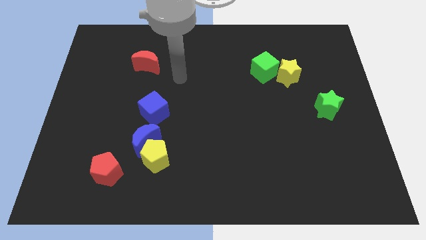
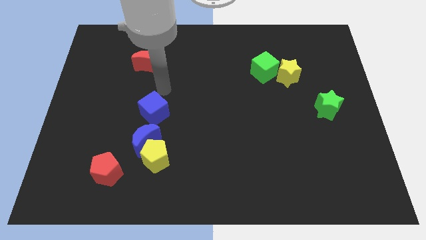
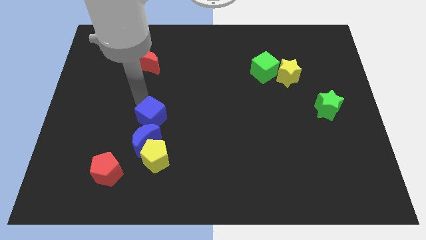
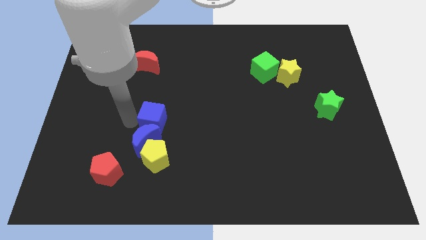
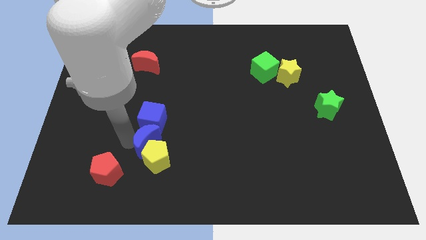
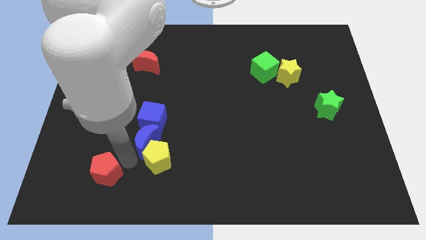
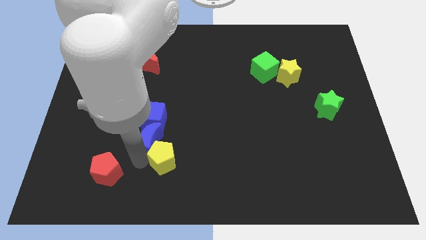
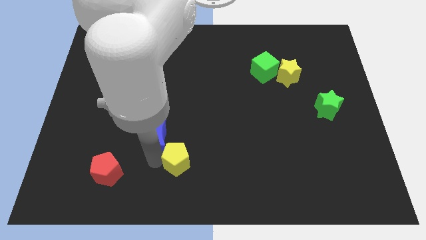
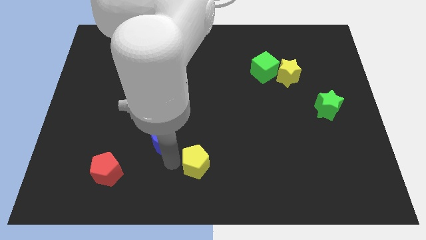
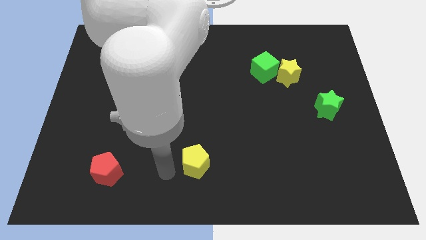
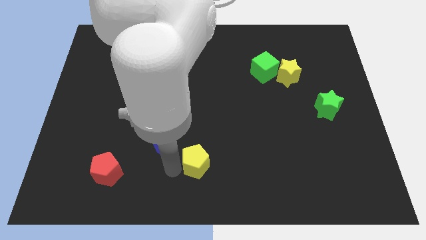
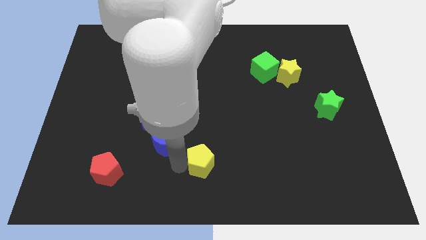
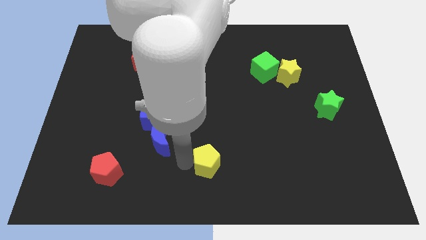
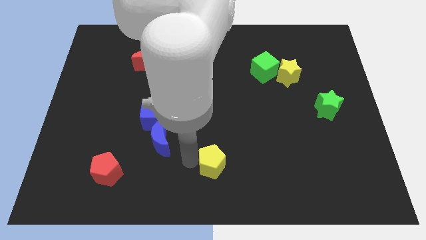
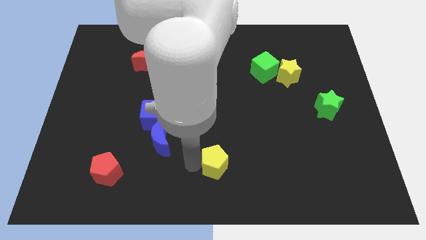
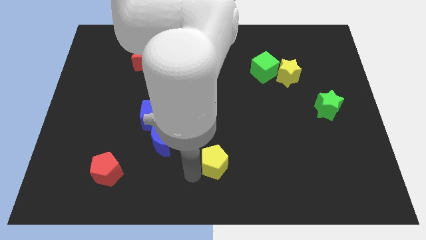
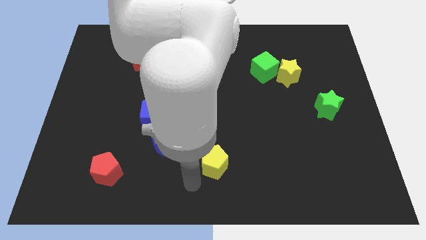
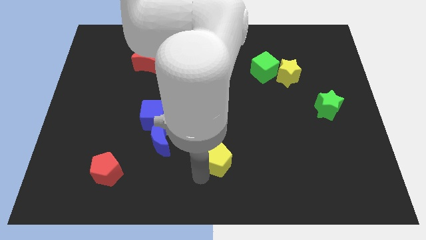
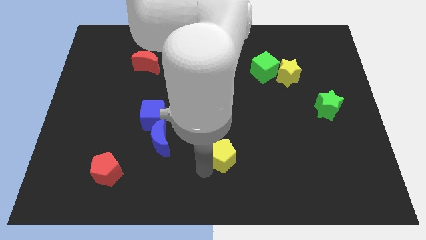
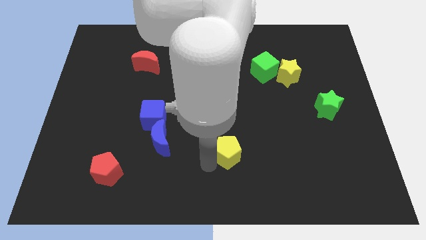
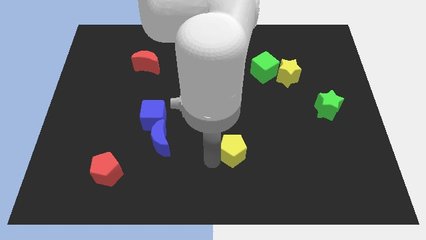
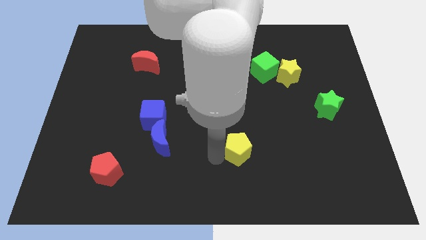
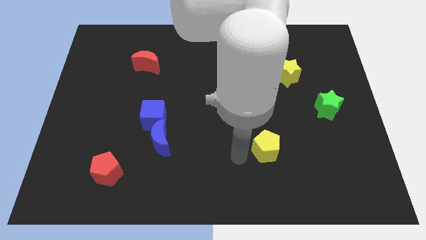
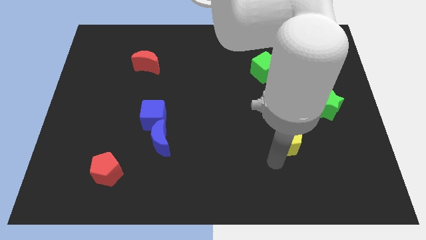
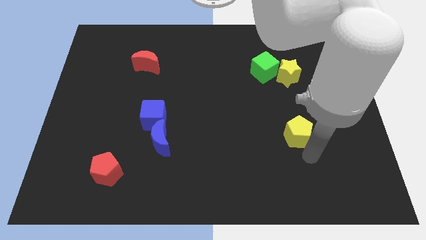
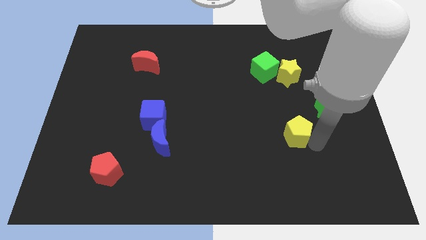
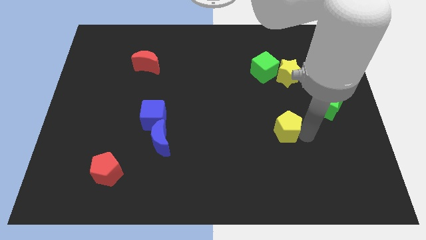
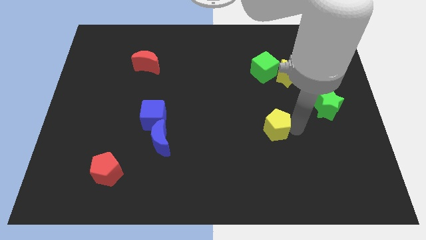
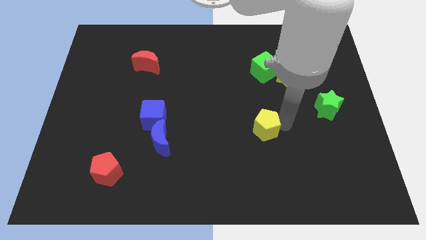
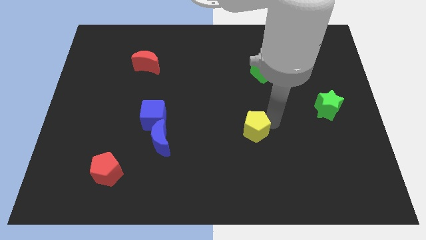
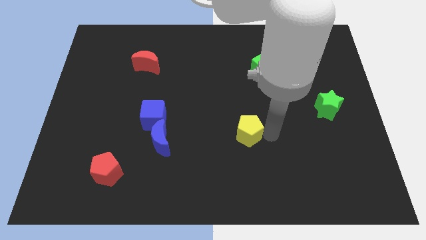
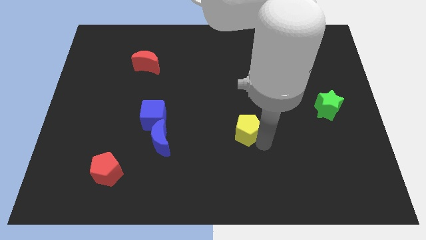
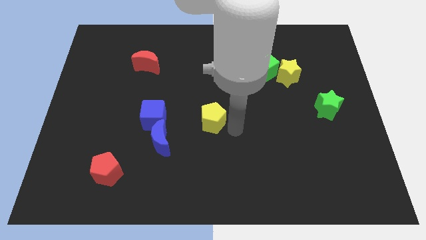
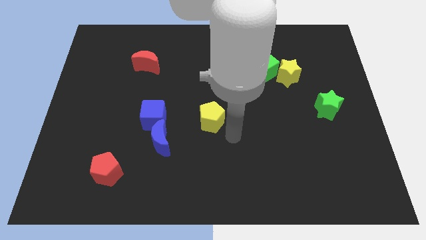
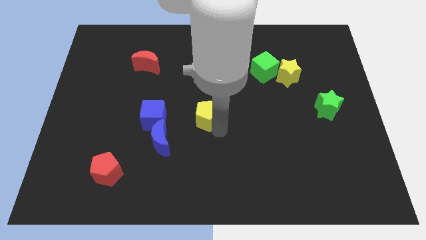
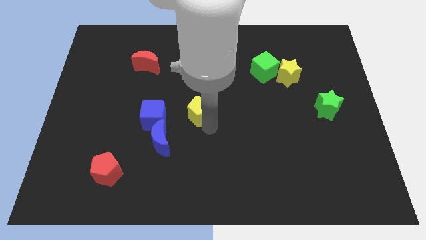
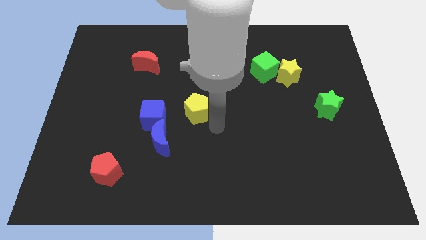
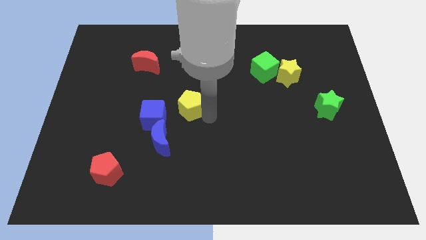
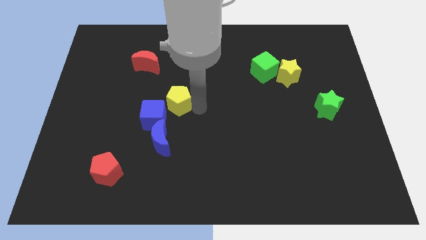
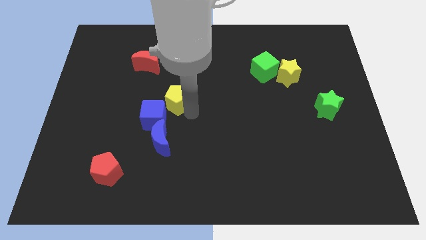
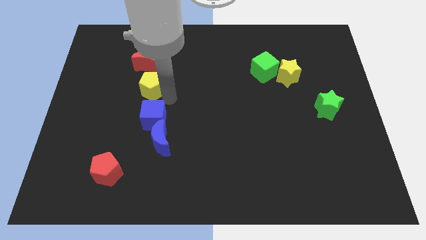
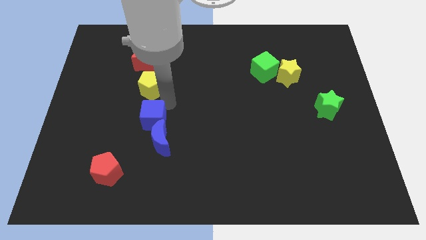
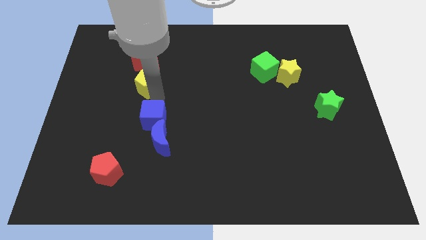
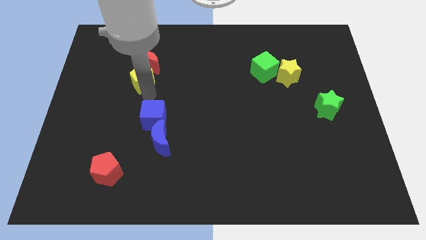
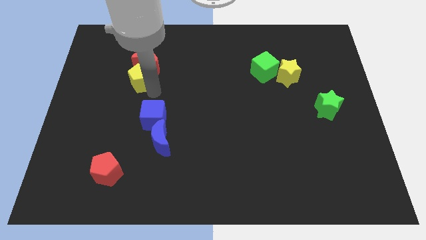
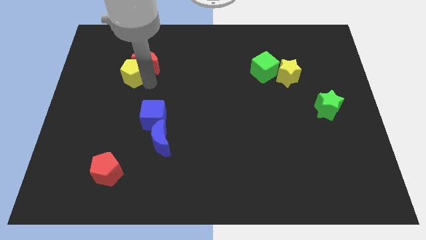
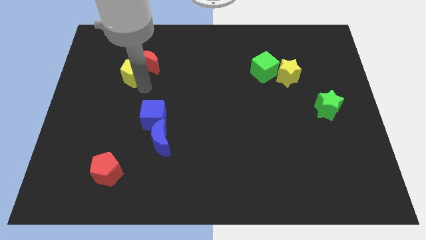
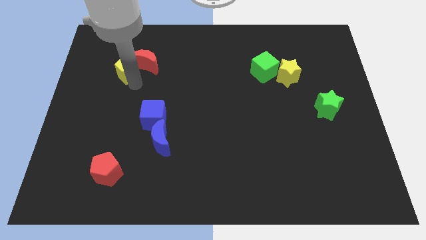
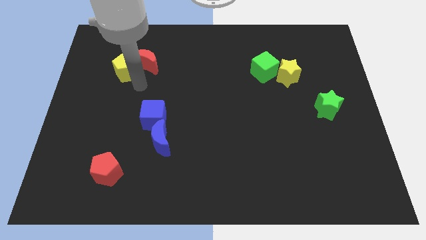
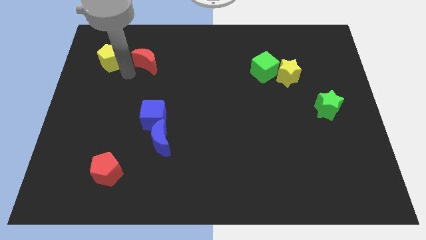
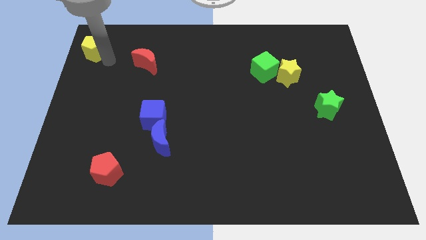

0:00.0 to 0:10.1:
push the yellow pentagon to the top left
